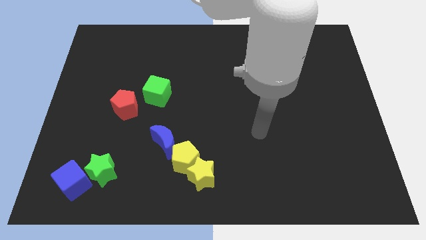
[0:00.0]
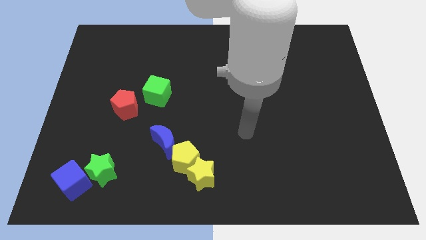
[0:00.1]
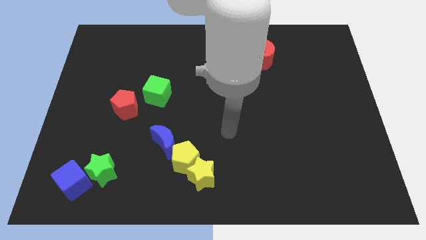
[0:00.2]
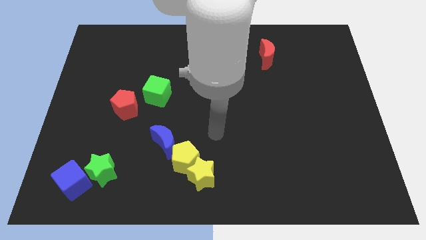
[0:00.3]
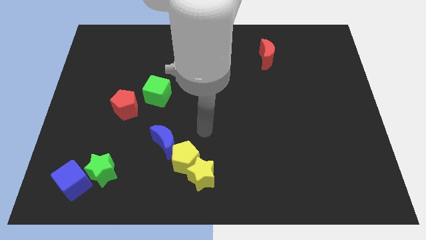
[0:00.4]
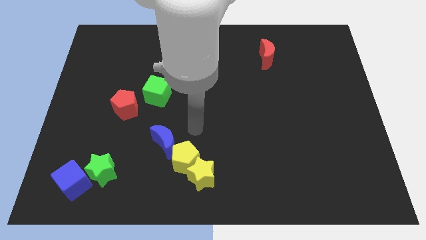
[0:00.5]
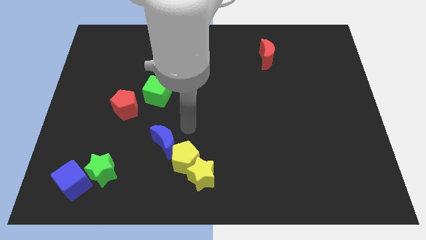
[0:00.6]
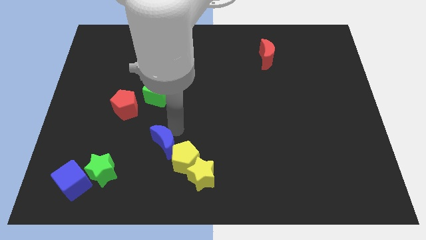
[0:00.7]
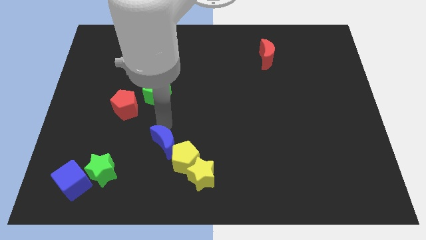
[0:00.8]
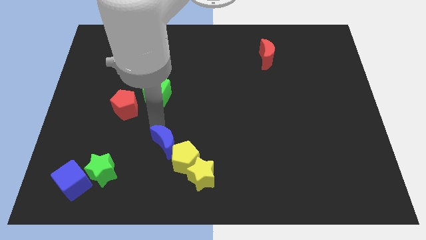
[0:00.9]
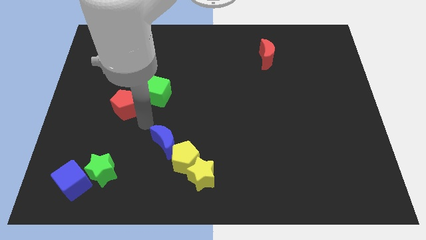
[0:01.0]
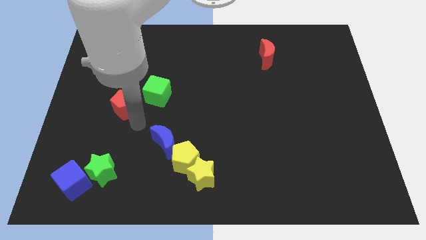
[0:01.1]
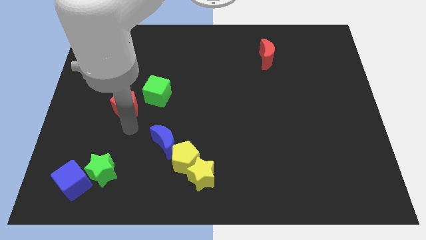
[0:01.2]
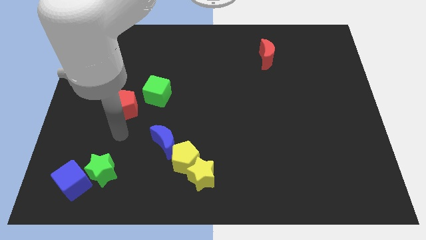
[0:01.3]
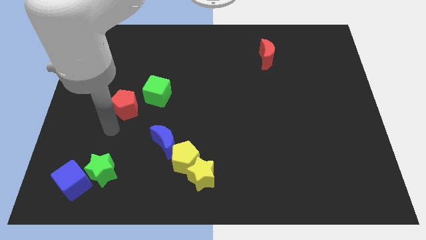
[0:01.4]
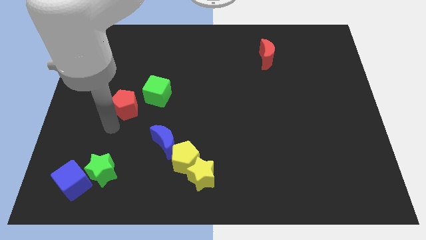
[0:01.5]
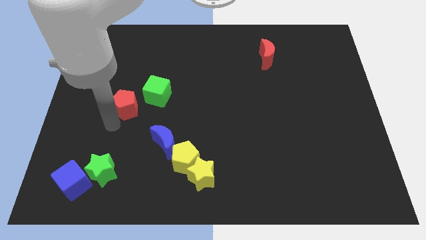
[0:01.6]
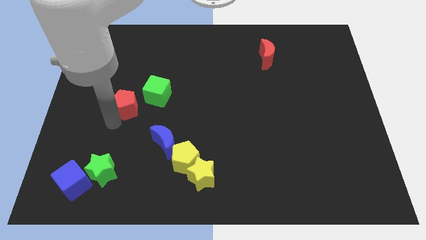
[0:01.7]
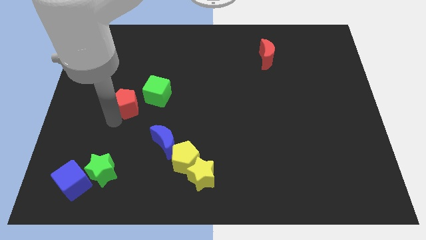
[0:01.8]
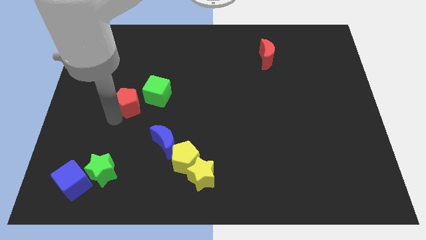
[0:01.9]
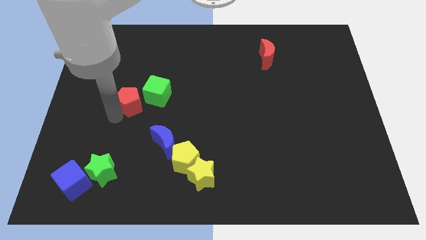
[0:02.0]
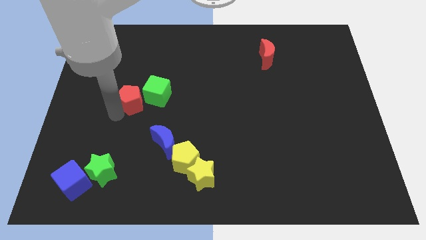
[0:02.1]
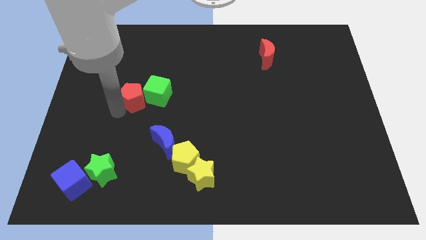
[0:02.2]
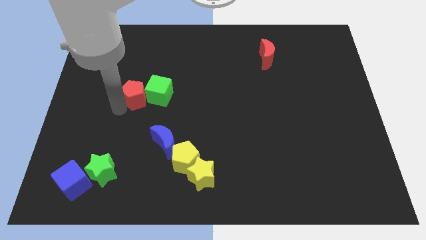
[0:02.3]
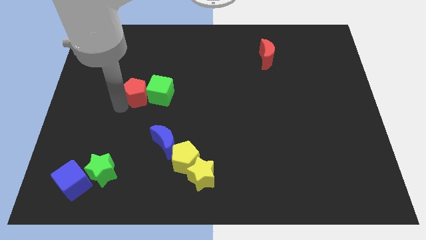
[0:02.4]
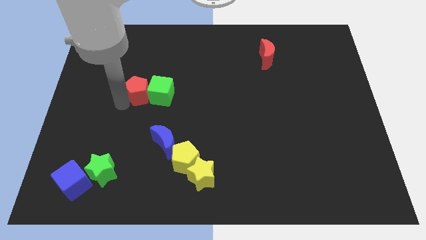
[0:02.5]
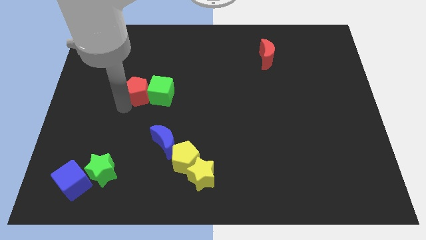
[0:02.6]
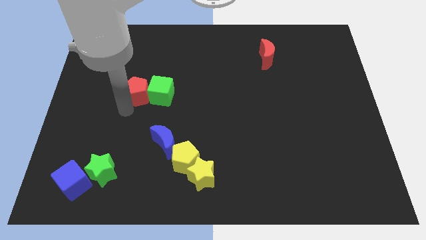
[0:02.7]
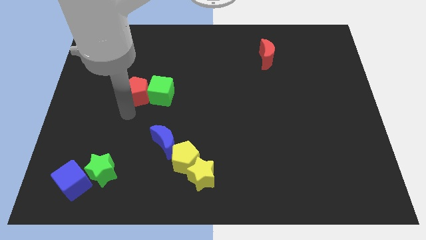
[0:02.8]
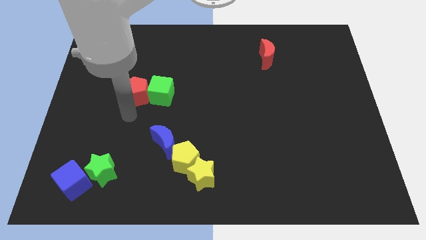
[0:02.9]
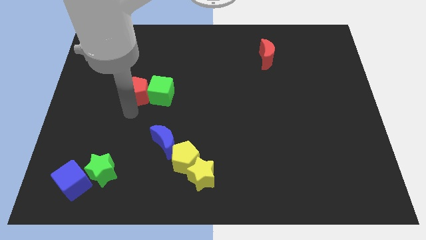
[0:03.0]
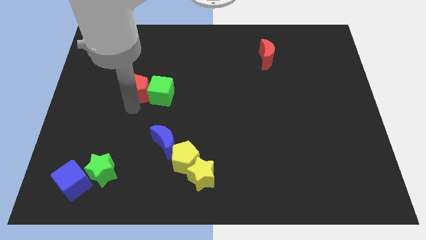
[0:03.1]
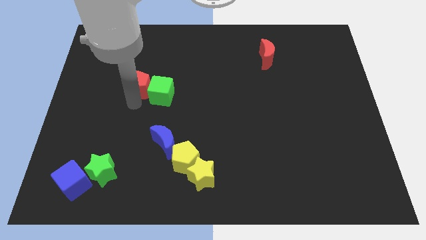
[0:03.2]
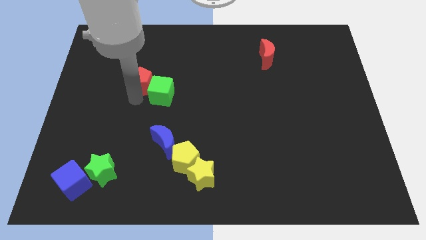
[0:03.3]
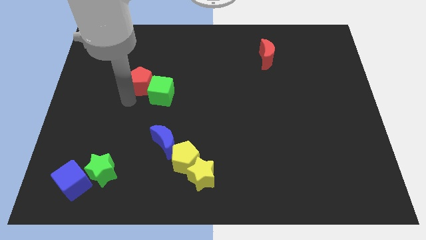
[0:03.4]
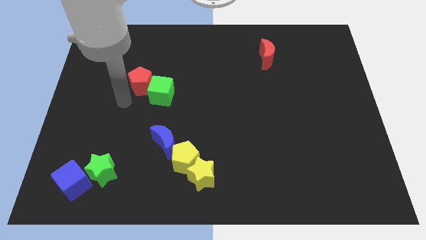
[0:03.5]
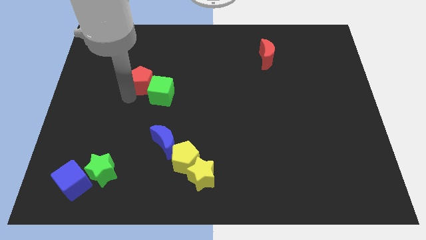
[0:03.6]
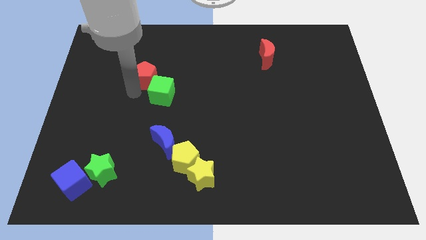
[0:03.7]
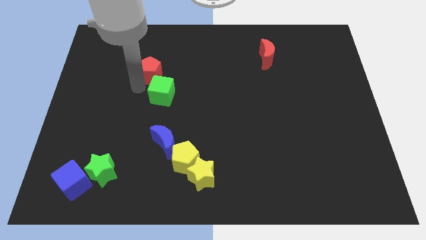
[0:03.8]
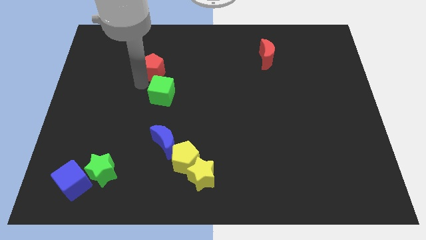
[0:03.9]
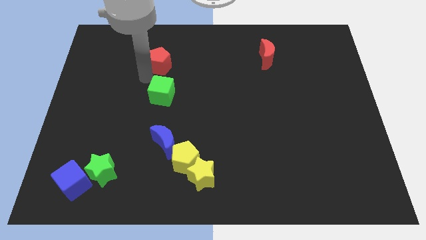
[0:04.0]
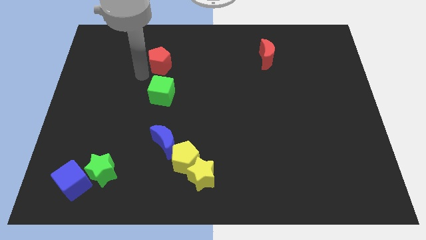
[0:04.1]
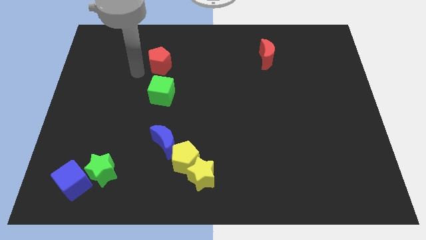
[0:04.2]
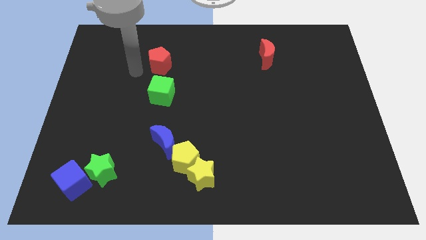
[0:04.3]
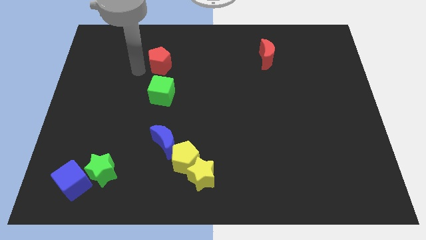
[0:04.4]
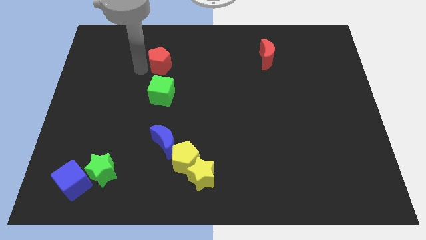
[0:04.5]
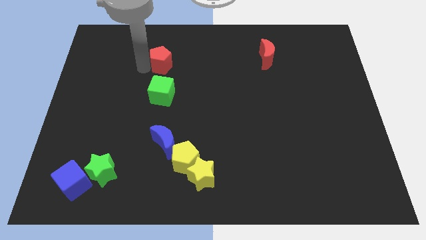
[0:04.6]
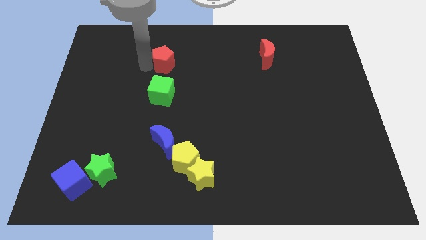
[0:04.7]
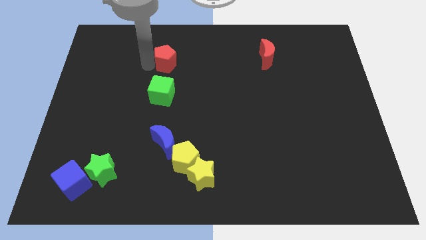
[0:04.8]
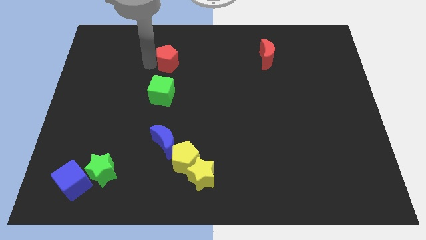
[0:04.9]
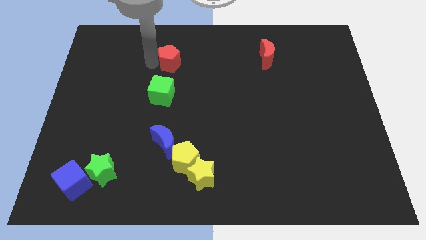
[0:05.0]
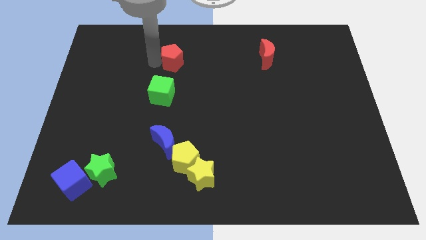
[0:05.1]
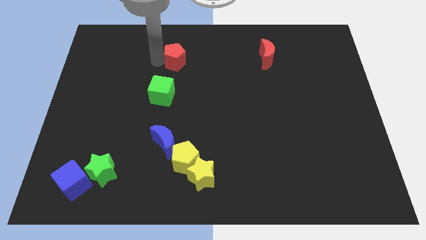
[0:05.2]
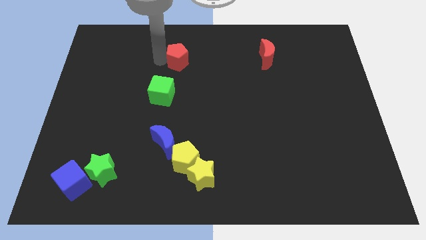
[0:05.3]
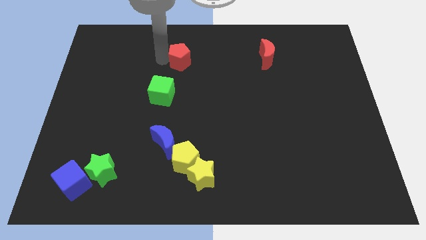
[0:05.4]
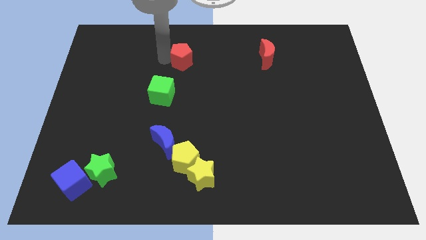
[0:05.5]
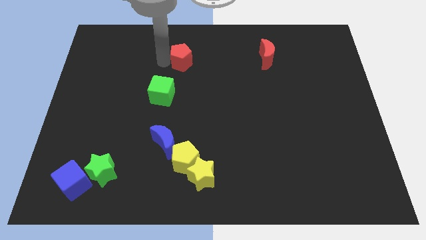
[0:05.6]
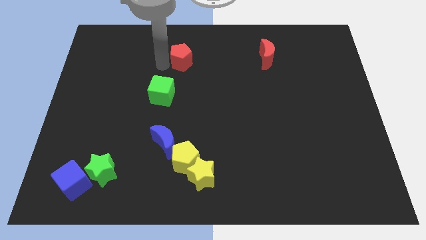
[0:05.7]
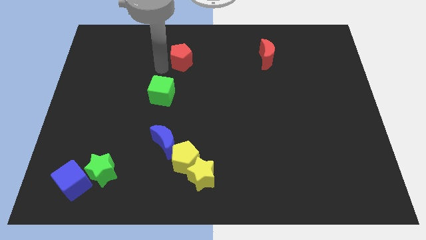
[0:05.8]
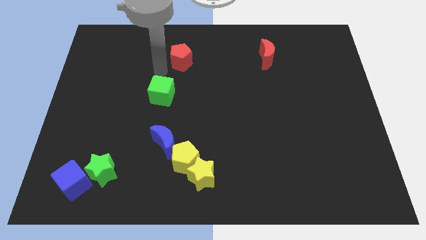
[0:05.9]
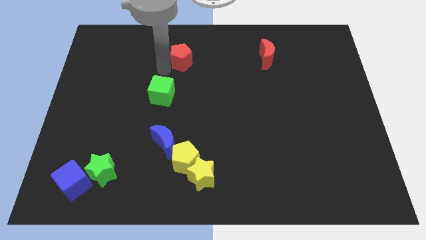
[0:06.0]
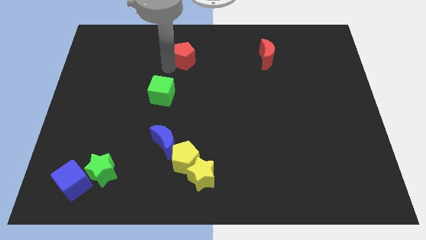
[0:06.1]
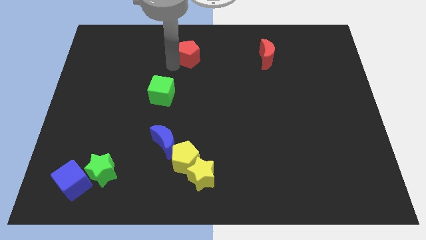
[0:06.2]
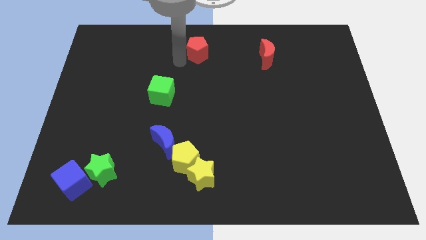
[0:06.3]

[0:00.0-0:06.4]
slide the red pentagon to the top
